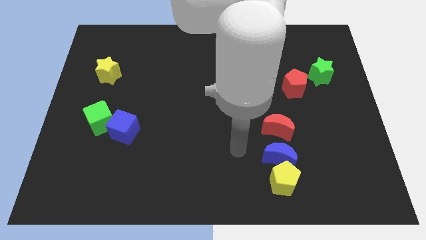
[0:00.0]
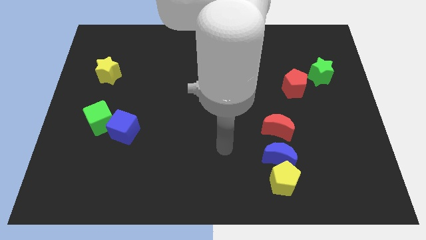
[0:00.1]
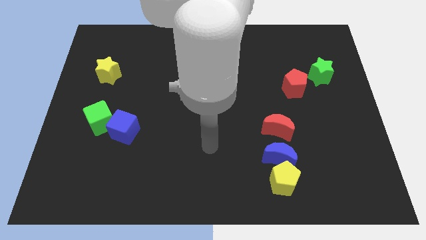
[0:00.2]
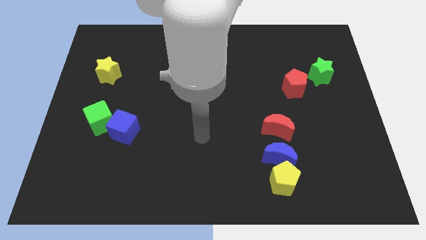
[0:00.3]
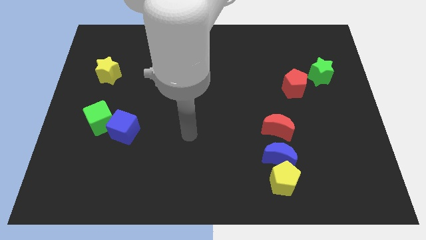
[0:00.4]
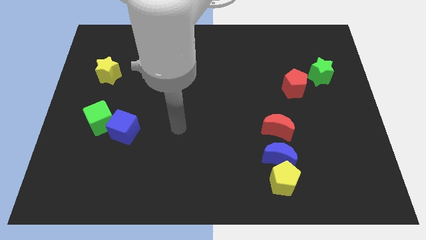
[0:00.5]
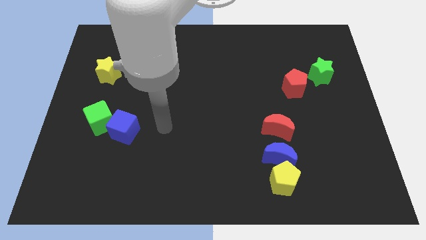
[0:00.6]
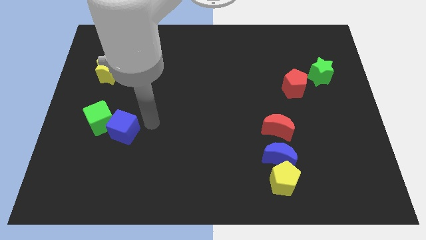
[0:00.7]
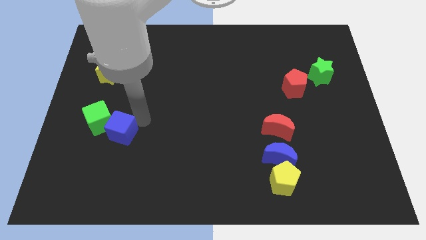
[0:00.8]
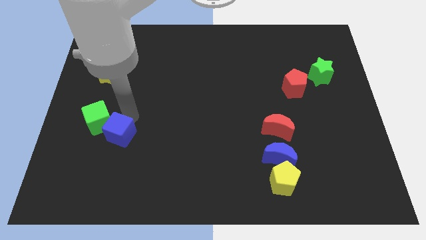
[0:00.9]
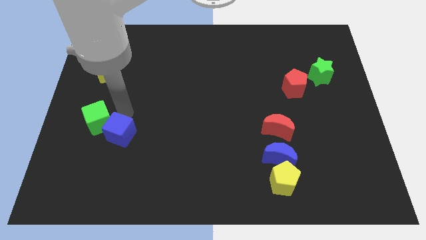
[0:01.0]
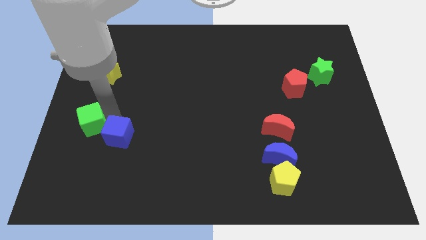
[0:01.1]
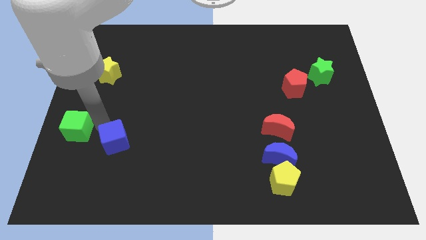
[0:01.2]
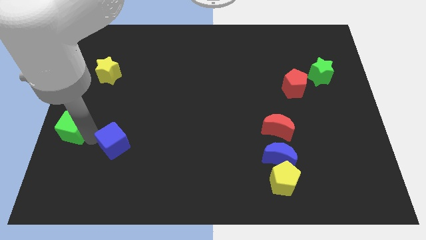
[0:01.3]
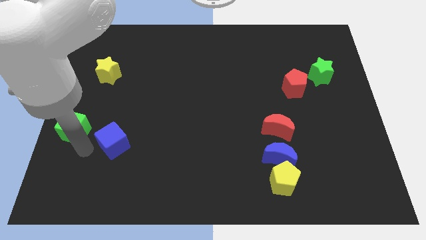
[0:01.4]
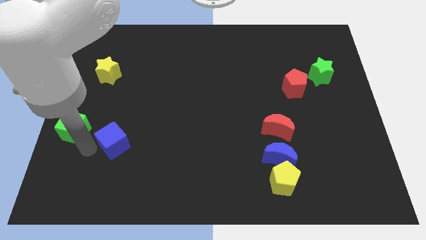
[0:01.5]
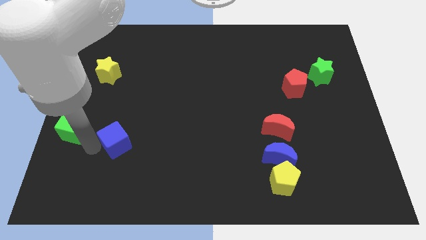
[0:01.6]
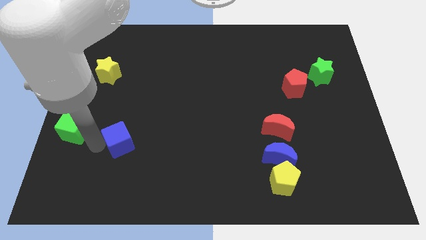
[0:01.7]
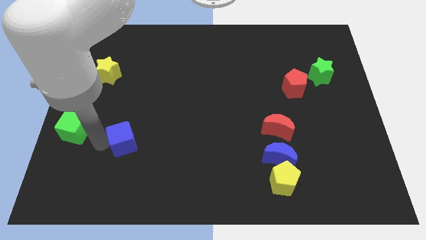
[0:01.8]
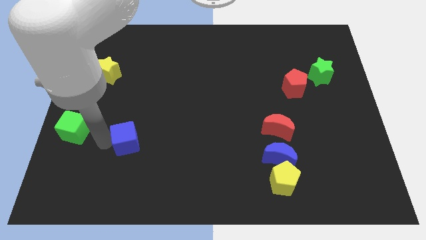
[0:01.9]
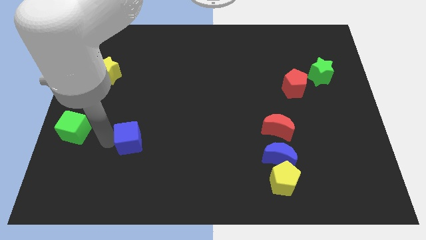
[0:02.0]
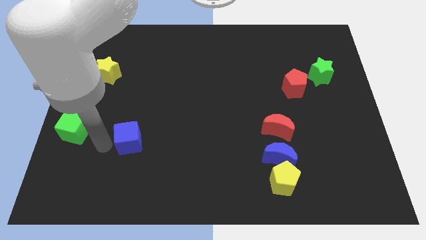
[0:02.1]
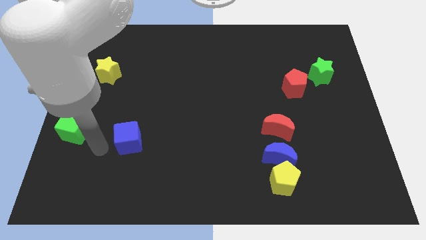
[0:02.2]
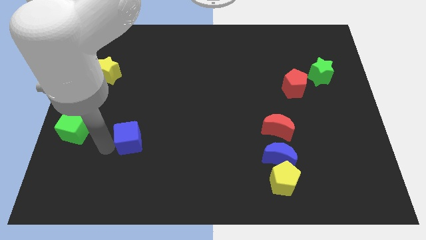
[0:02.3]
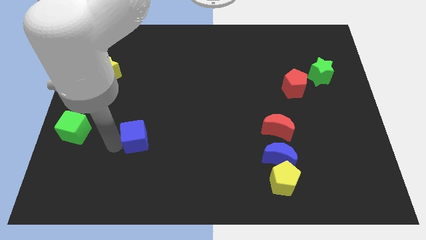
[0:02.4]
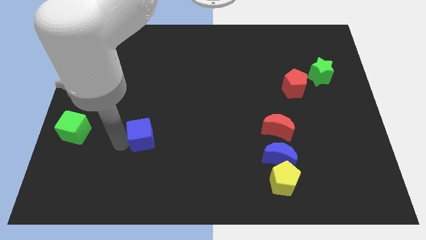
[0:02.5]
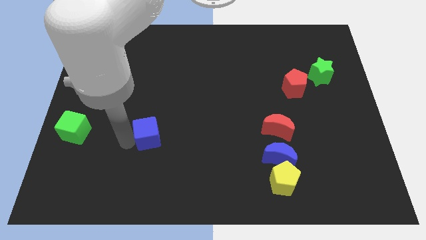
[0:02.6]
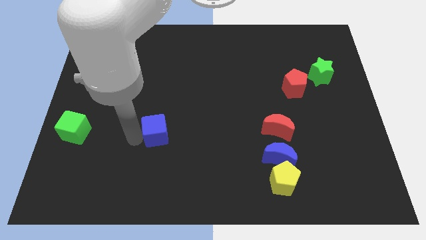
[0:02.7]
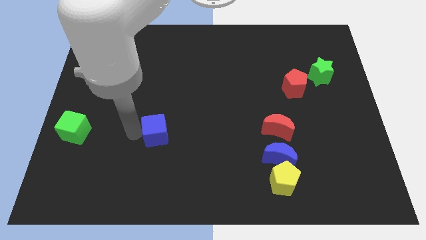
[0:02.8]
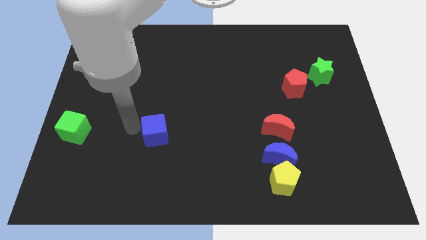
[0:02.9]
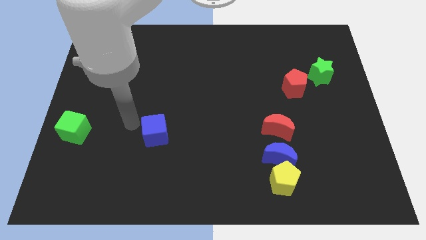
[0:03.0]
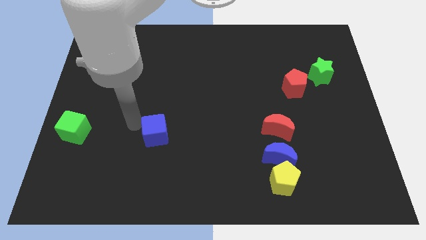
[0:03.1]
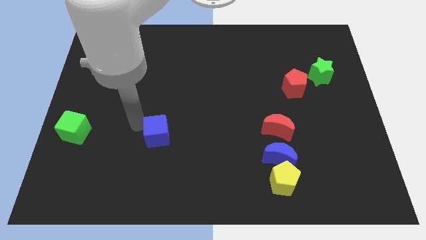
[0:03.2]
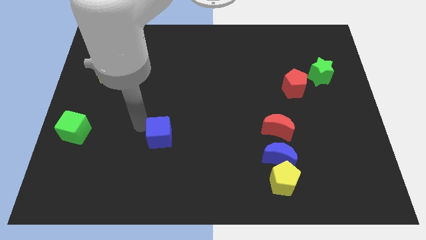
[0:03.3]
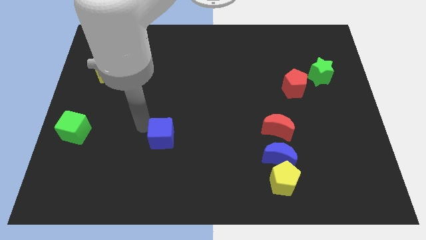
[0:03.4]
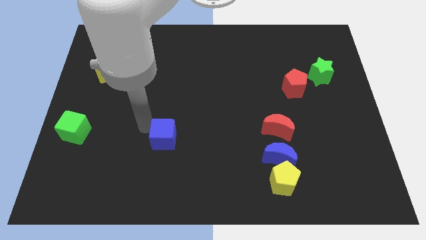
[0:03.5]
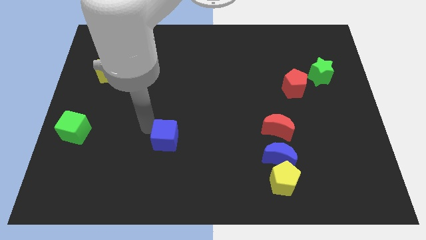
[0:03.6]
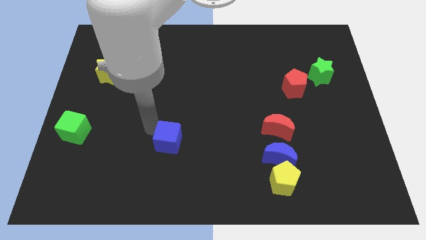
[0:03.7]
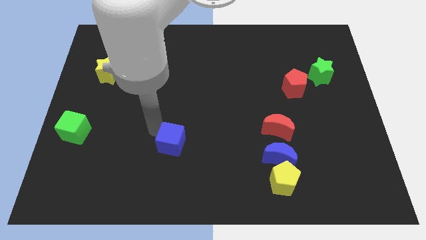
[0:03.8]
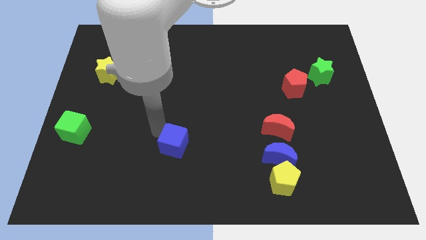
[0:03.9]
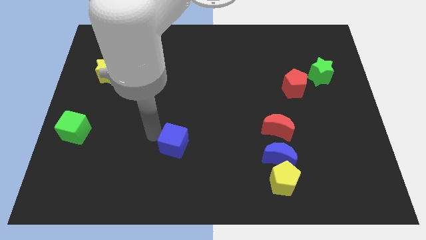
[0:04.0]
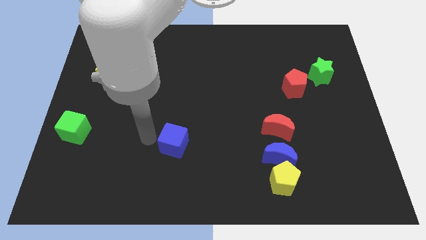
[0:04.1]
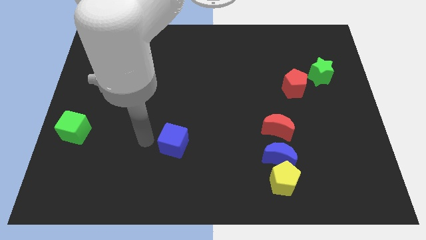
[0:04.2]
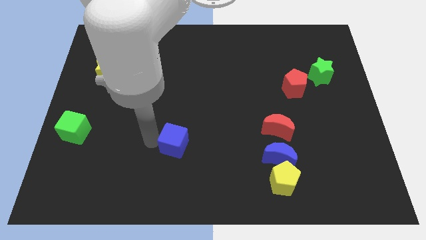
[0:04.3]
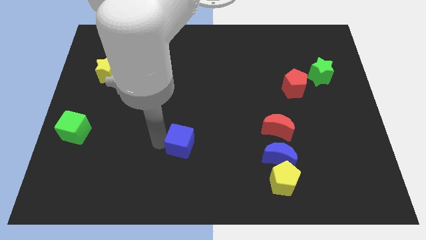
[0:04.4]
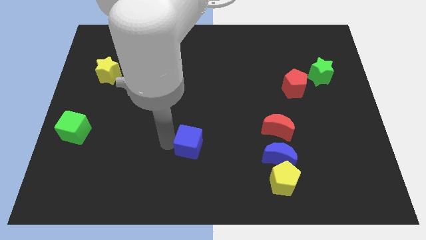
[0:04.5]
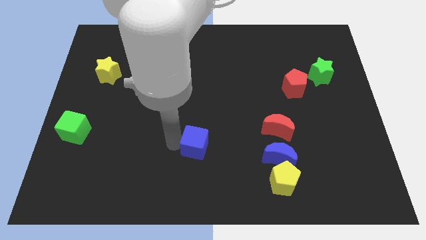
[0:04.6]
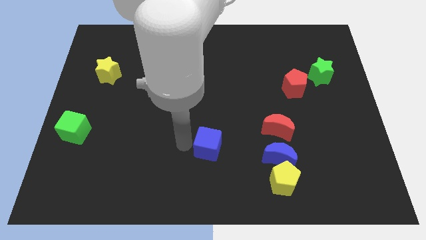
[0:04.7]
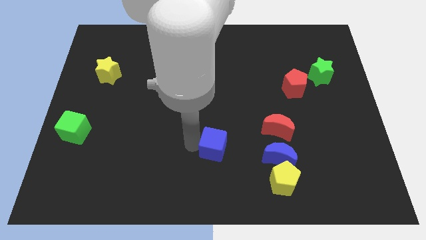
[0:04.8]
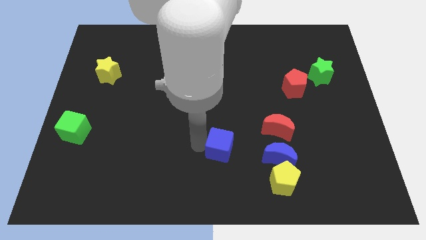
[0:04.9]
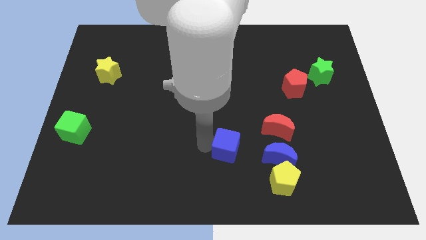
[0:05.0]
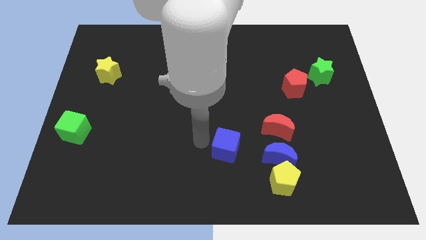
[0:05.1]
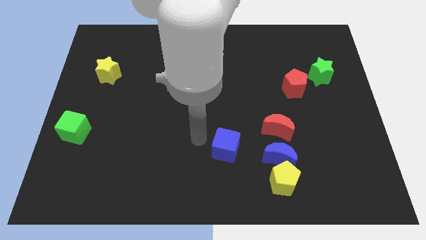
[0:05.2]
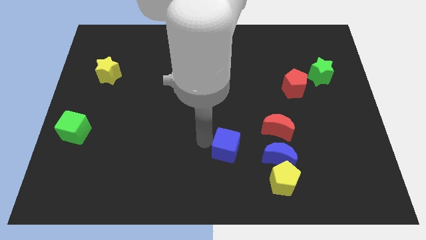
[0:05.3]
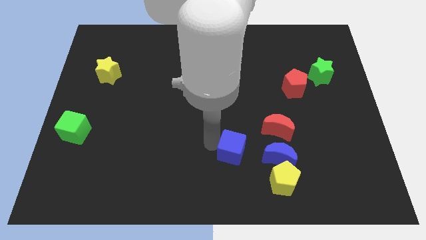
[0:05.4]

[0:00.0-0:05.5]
put the blue cube to the top left of the yellow pentagon

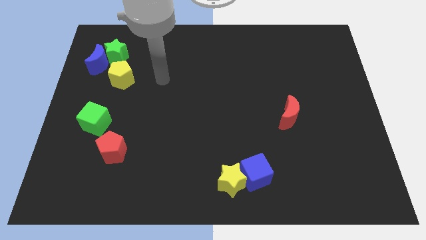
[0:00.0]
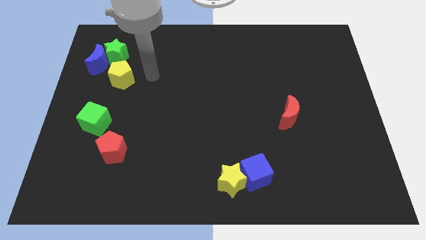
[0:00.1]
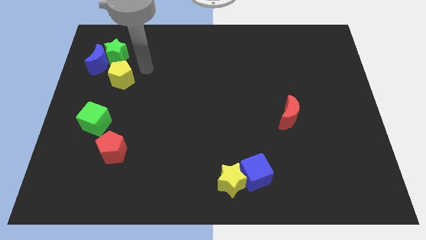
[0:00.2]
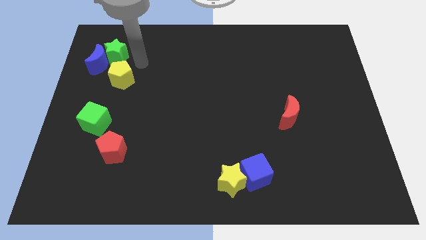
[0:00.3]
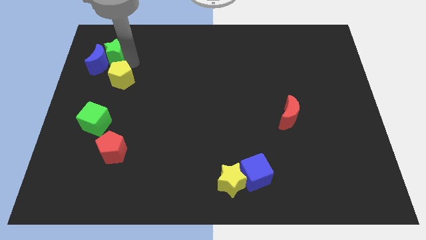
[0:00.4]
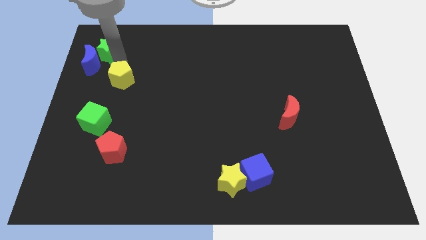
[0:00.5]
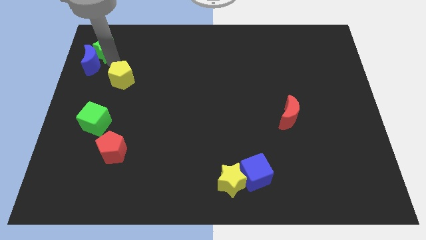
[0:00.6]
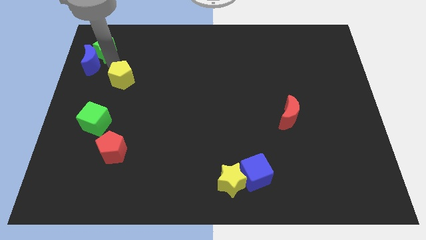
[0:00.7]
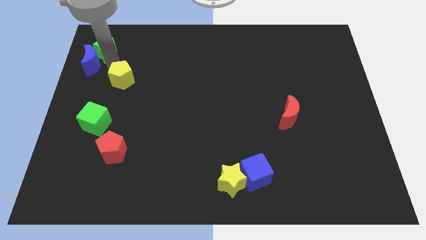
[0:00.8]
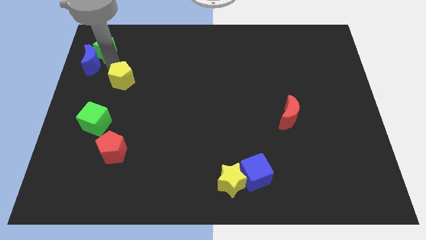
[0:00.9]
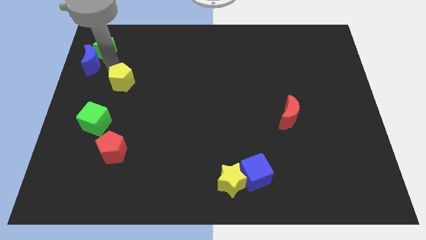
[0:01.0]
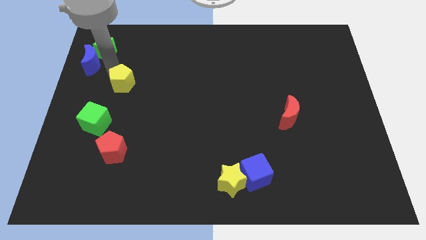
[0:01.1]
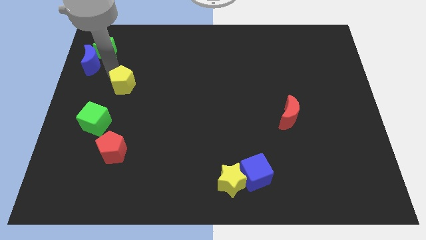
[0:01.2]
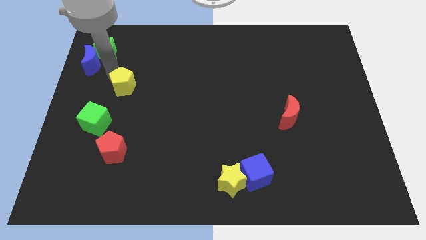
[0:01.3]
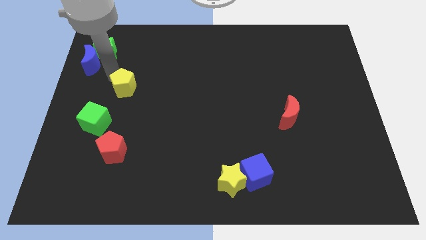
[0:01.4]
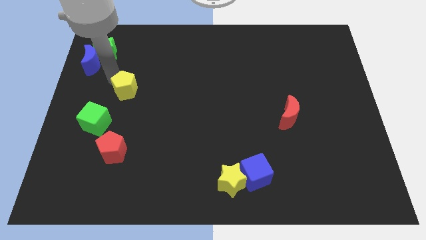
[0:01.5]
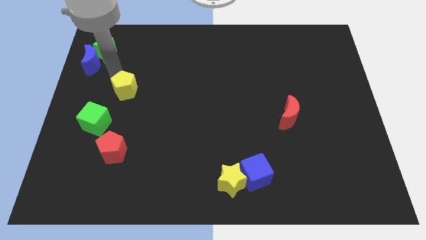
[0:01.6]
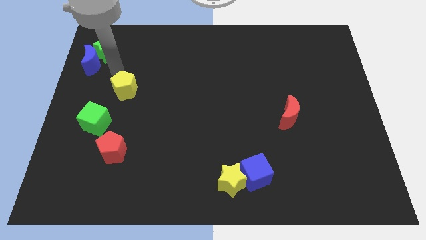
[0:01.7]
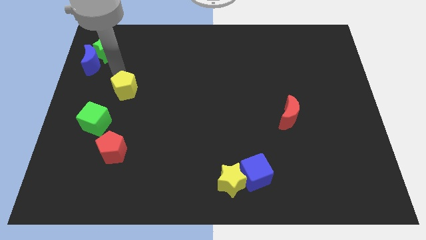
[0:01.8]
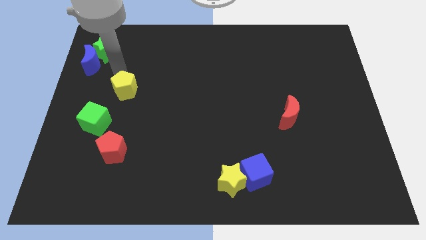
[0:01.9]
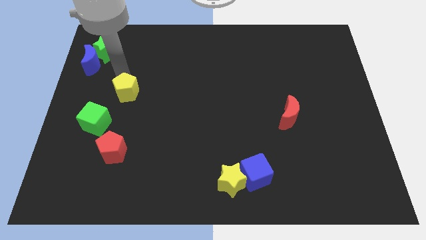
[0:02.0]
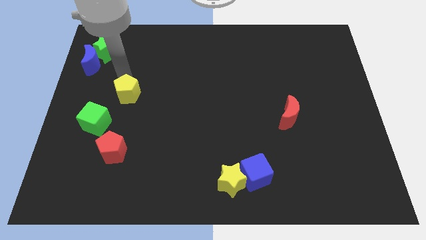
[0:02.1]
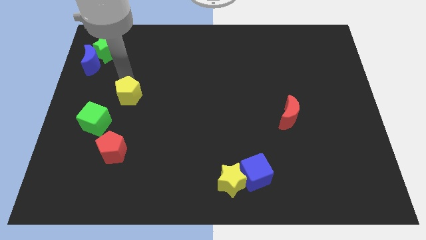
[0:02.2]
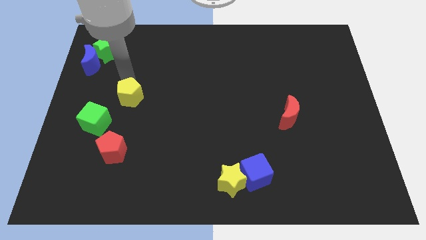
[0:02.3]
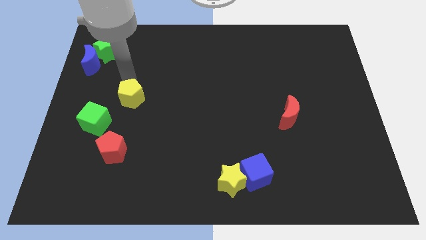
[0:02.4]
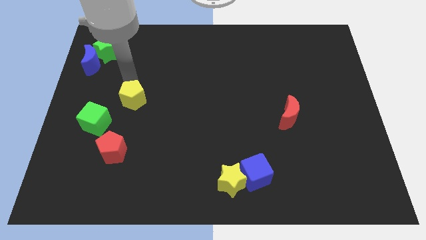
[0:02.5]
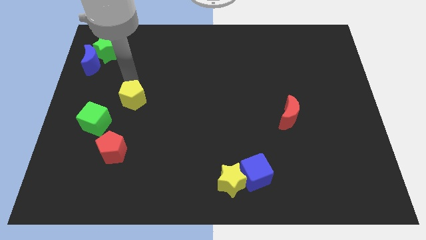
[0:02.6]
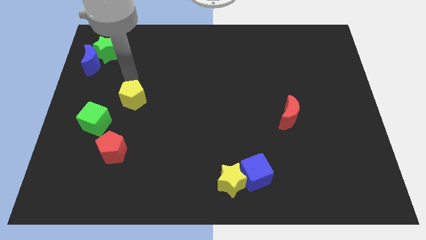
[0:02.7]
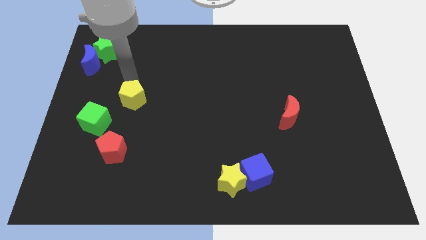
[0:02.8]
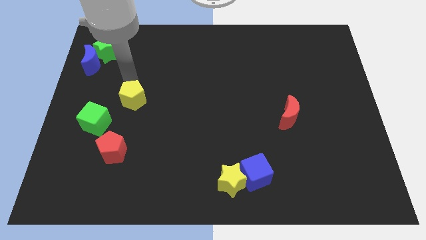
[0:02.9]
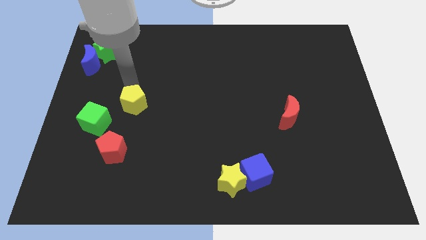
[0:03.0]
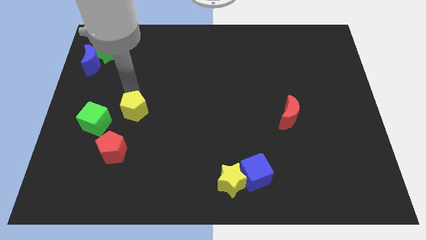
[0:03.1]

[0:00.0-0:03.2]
slide the yellow pentagon right of the green cube
